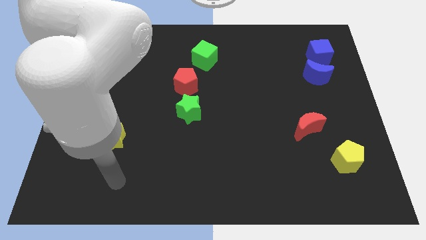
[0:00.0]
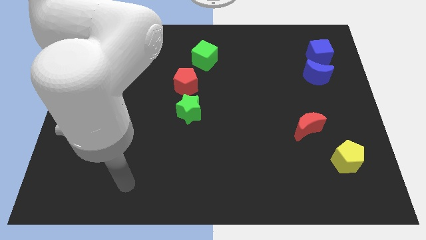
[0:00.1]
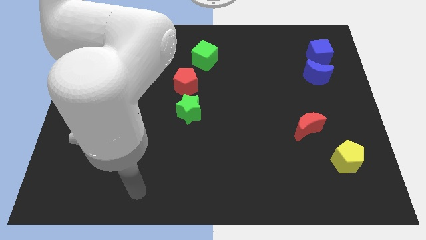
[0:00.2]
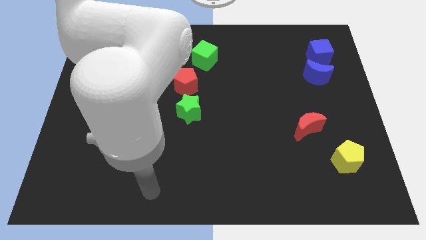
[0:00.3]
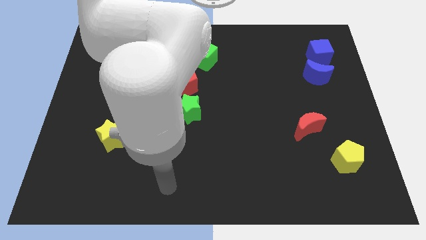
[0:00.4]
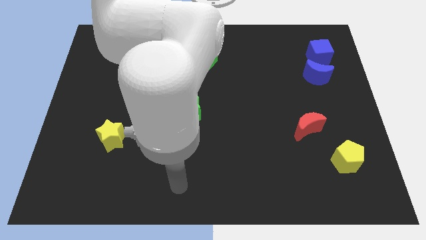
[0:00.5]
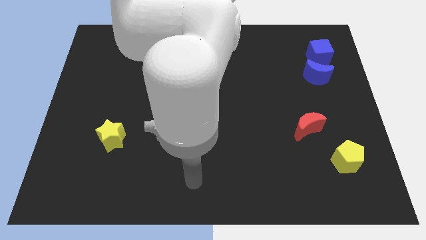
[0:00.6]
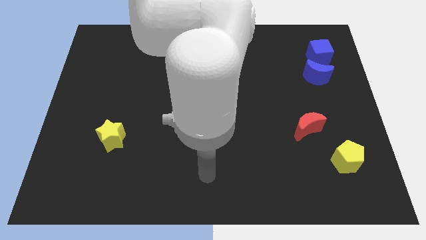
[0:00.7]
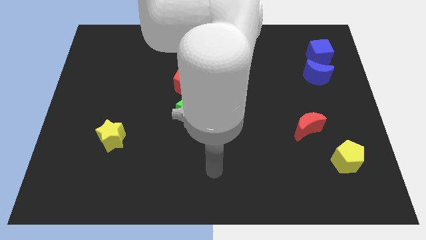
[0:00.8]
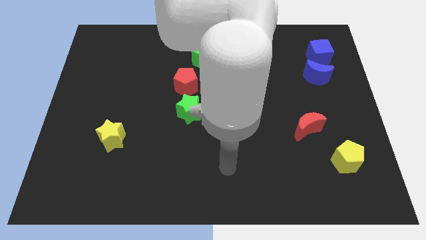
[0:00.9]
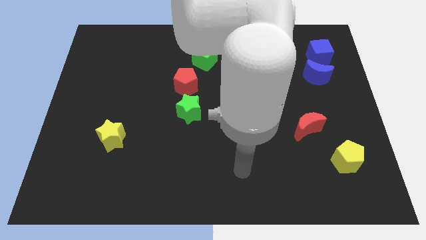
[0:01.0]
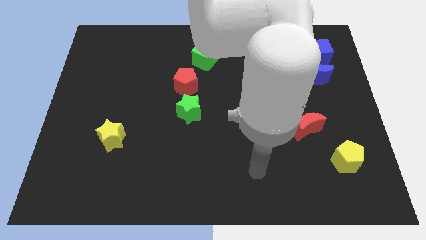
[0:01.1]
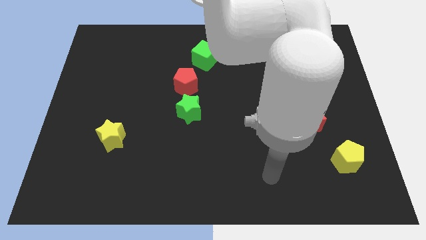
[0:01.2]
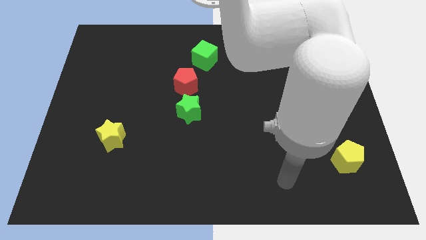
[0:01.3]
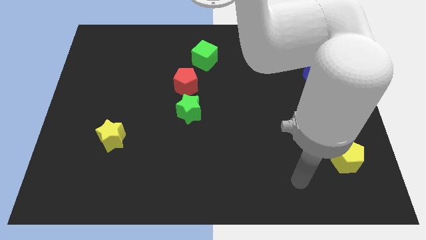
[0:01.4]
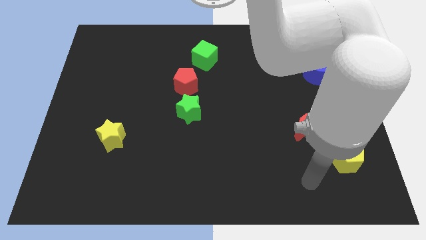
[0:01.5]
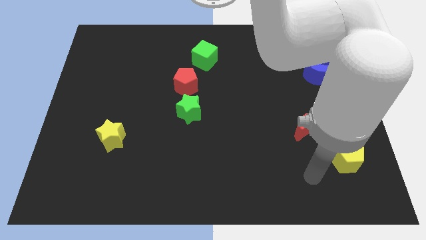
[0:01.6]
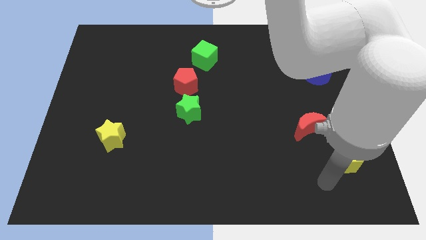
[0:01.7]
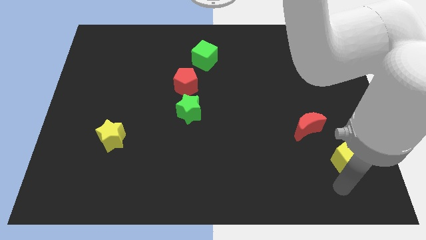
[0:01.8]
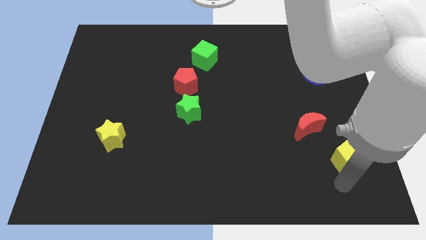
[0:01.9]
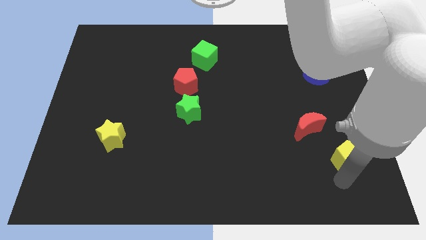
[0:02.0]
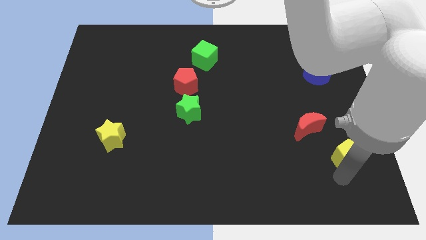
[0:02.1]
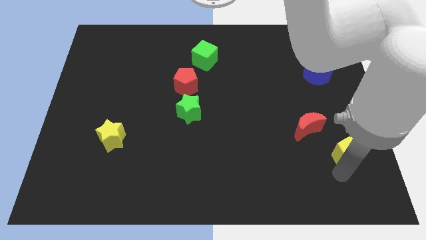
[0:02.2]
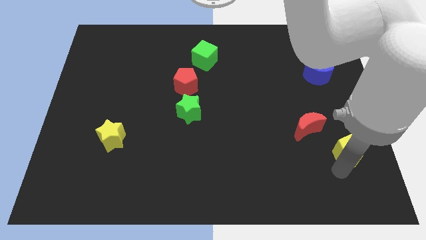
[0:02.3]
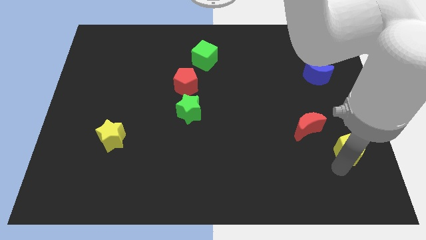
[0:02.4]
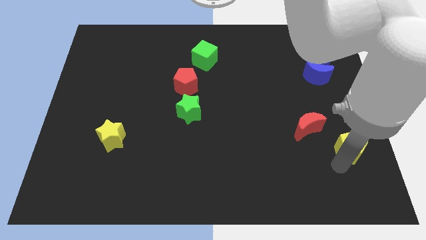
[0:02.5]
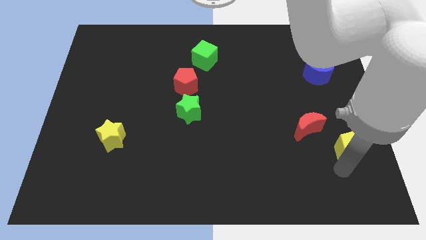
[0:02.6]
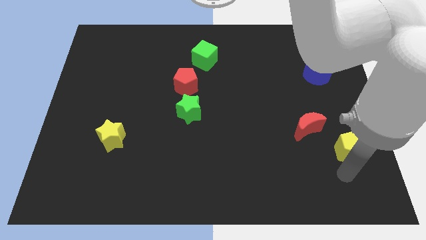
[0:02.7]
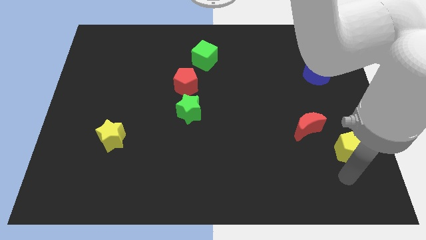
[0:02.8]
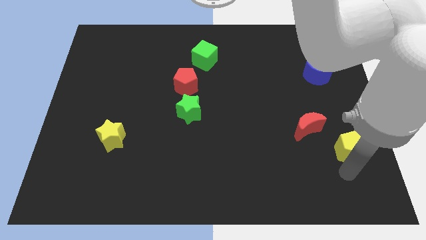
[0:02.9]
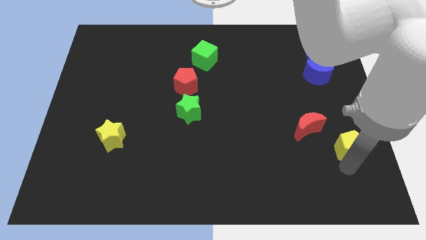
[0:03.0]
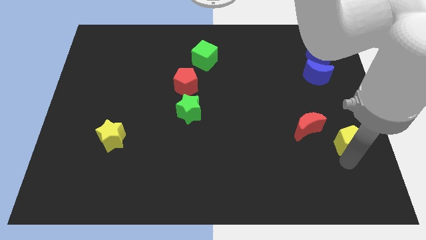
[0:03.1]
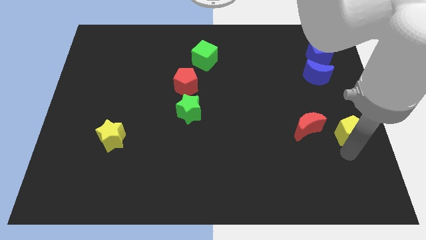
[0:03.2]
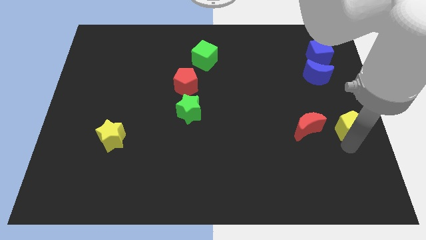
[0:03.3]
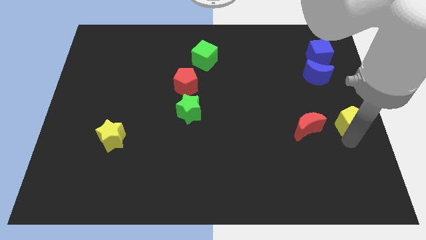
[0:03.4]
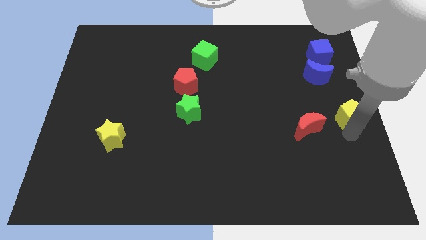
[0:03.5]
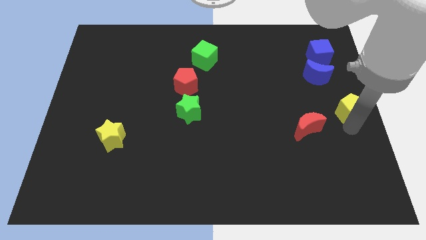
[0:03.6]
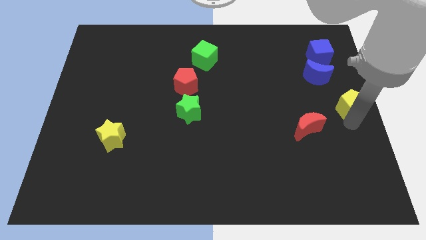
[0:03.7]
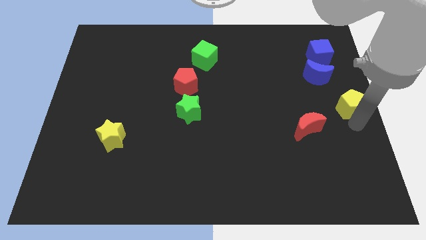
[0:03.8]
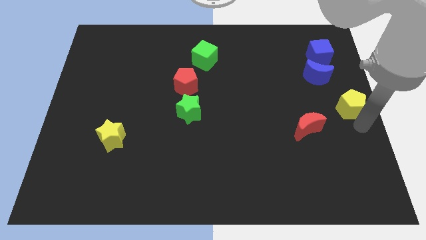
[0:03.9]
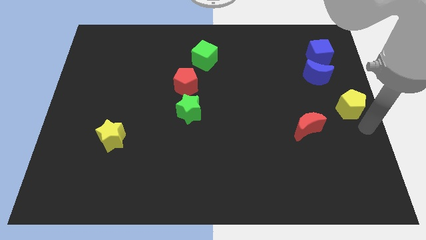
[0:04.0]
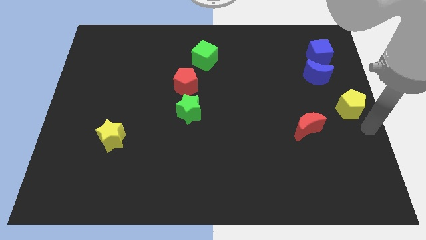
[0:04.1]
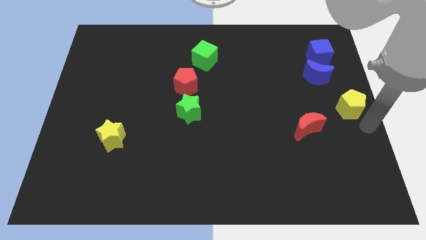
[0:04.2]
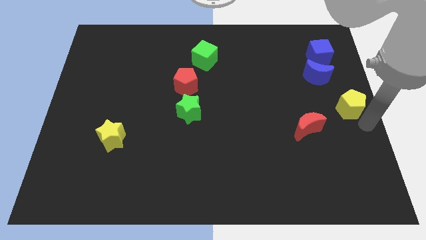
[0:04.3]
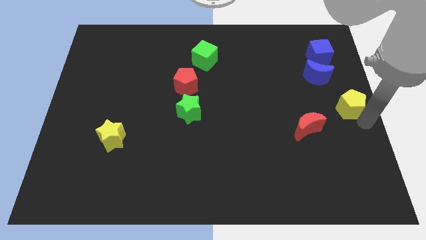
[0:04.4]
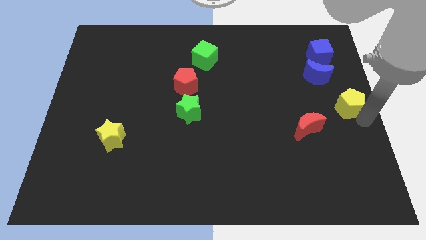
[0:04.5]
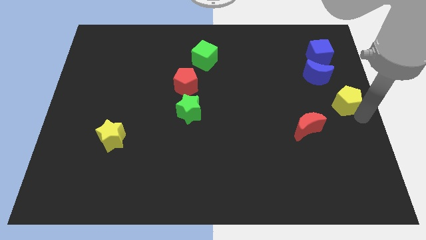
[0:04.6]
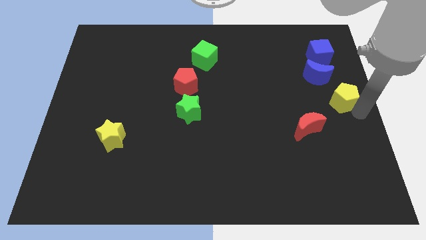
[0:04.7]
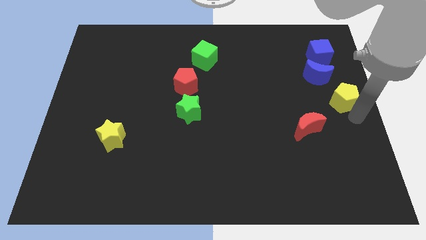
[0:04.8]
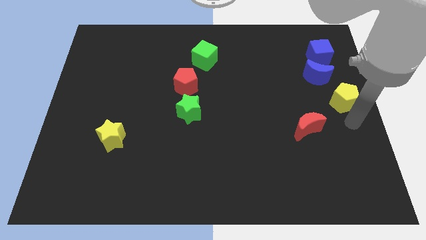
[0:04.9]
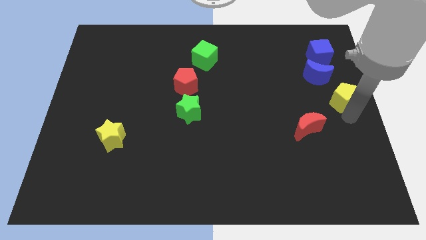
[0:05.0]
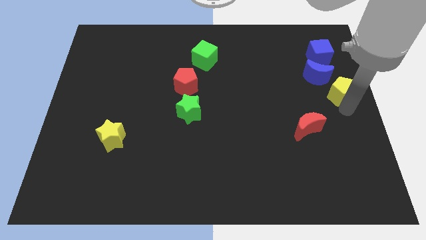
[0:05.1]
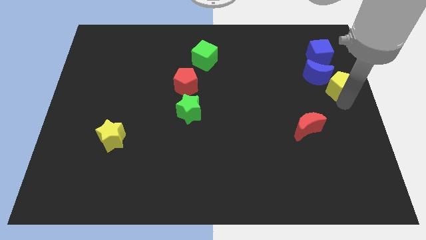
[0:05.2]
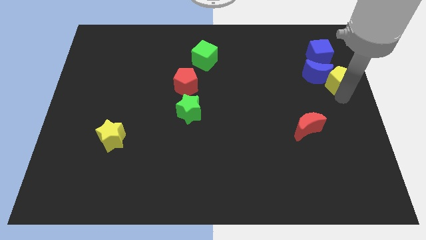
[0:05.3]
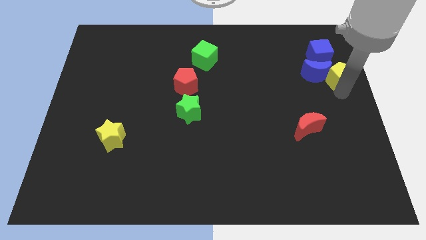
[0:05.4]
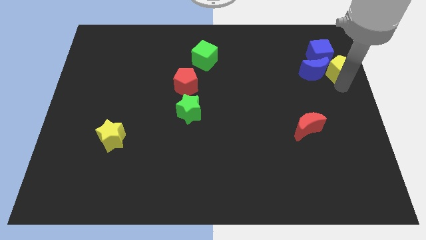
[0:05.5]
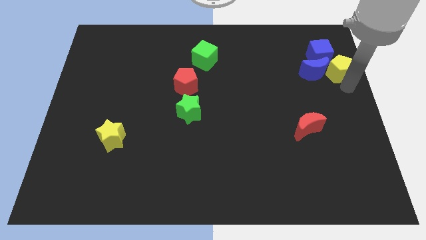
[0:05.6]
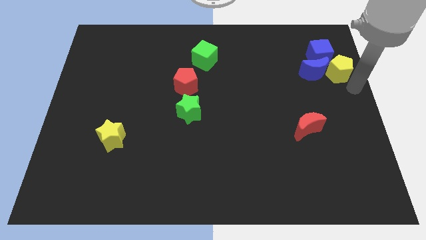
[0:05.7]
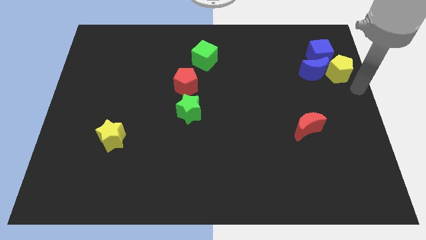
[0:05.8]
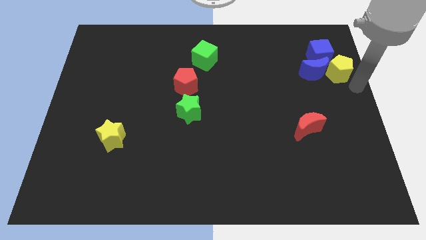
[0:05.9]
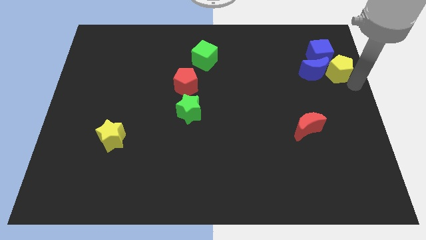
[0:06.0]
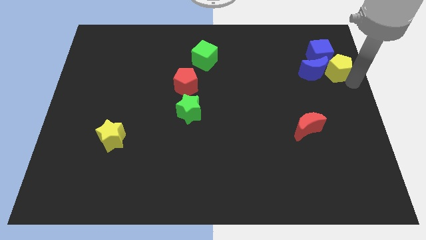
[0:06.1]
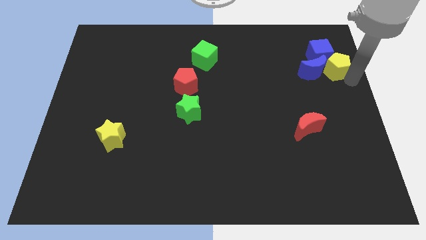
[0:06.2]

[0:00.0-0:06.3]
push the yellow pentagon close to the blue cube

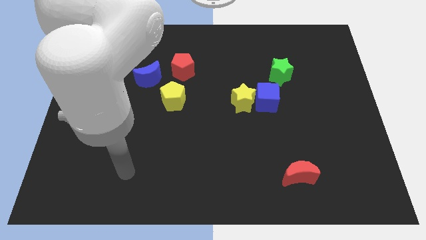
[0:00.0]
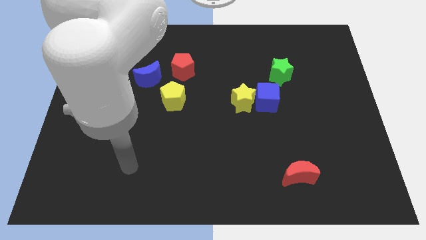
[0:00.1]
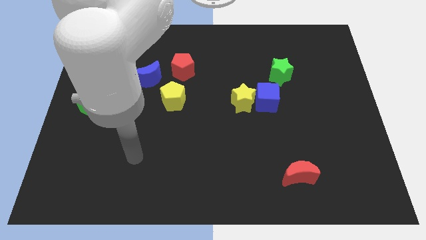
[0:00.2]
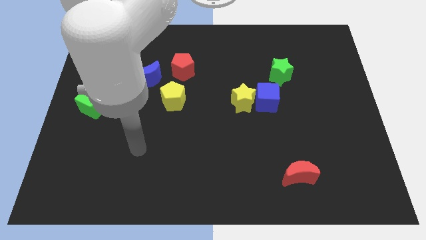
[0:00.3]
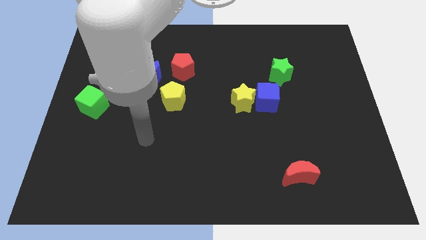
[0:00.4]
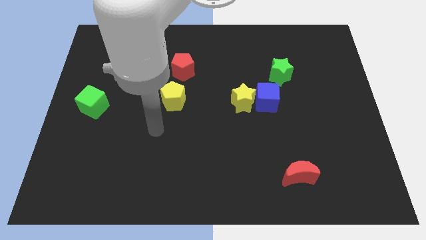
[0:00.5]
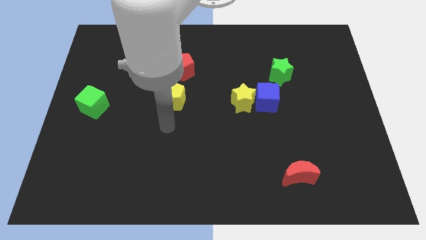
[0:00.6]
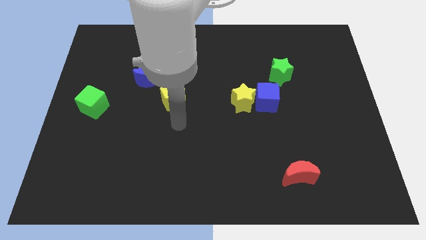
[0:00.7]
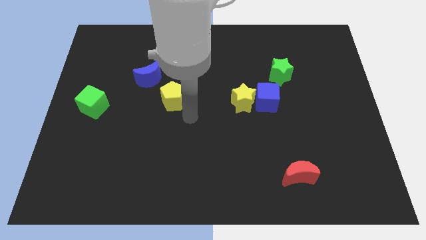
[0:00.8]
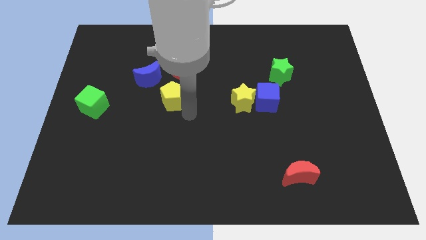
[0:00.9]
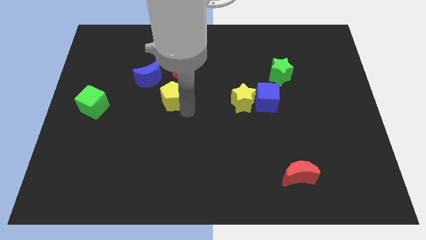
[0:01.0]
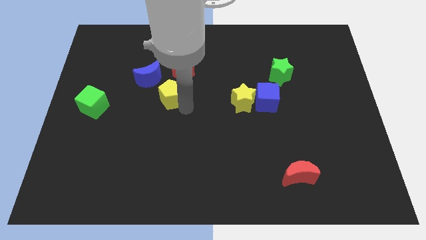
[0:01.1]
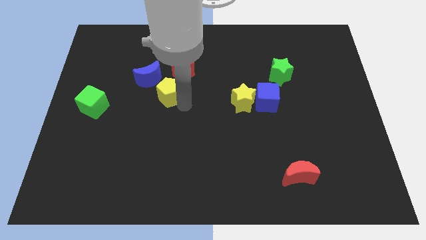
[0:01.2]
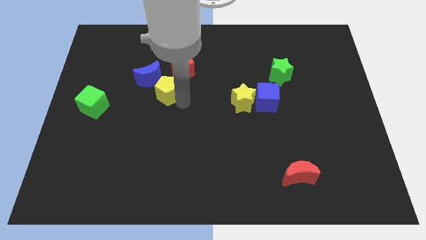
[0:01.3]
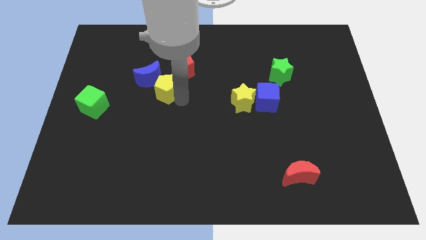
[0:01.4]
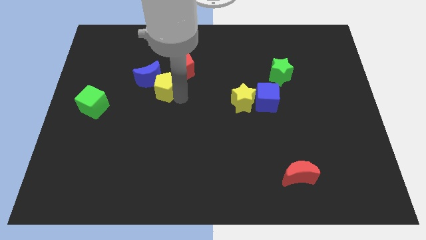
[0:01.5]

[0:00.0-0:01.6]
put the yellow pentagon next to the blue moon
